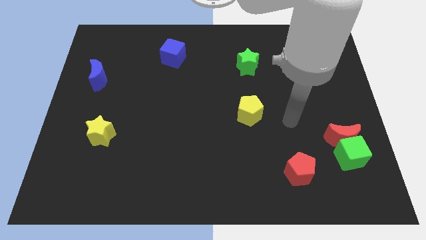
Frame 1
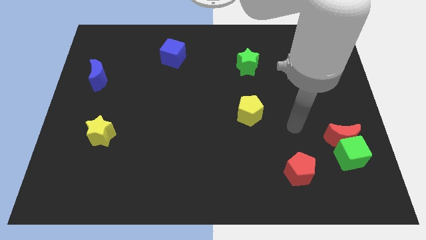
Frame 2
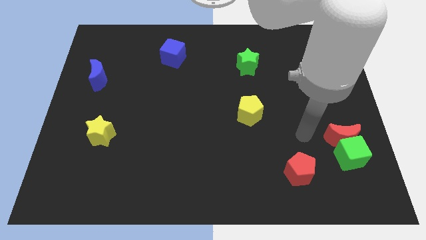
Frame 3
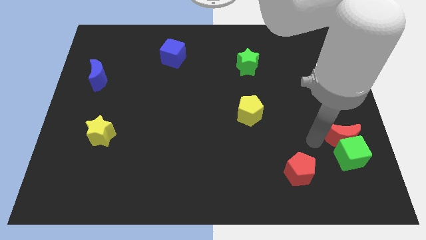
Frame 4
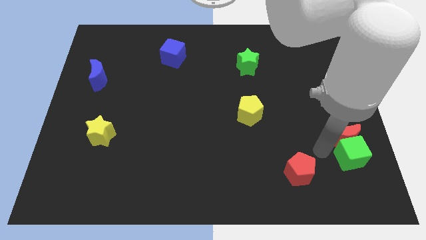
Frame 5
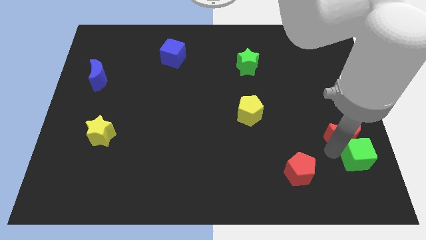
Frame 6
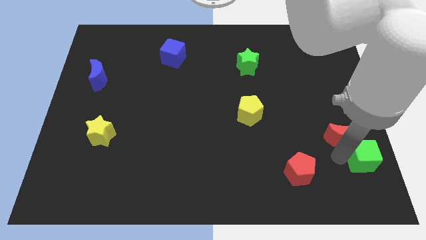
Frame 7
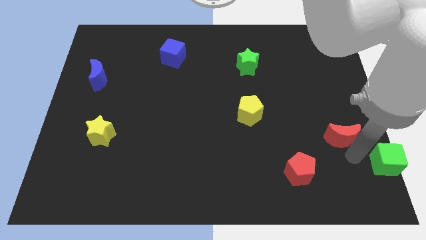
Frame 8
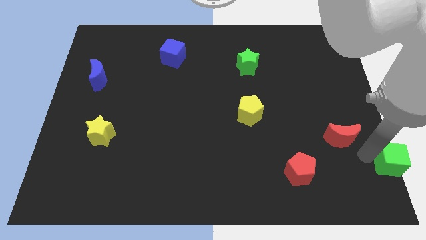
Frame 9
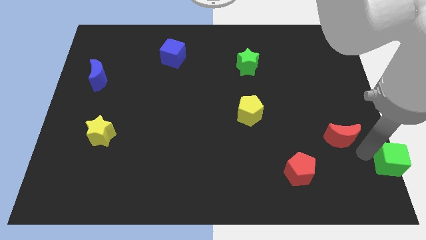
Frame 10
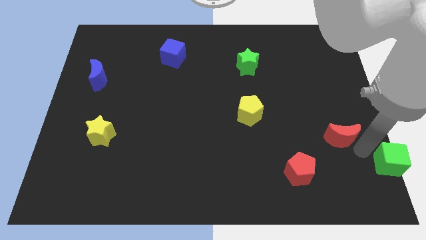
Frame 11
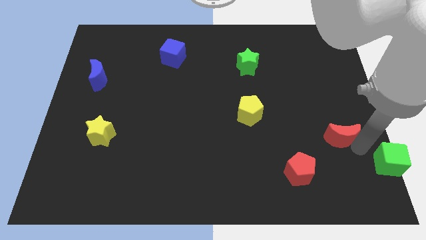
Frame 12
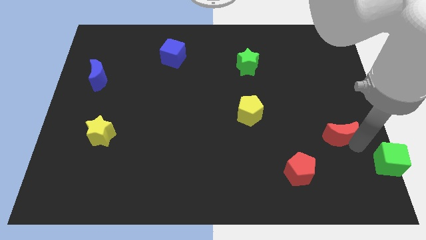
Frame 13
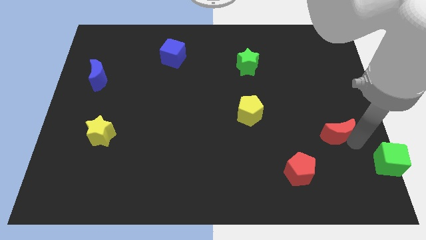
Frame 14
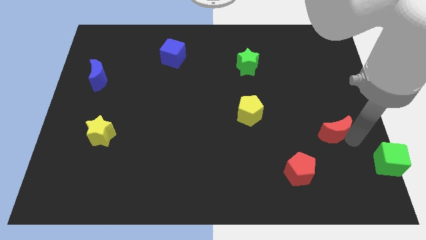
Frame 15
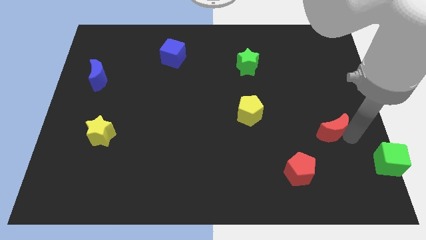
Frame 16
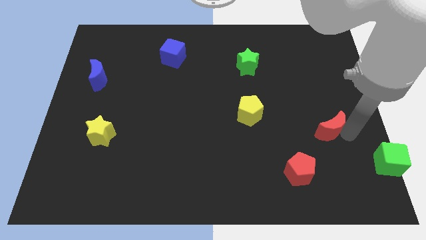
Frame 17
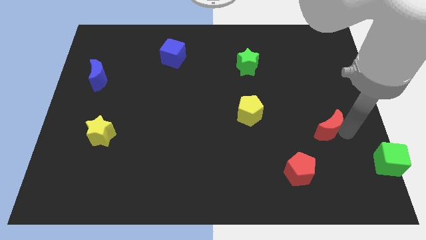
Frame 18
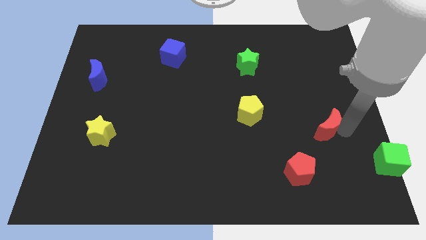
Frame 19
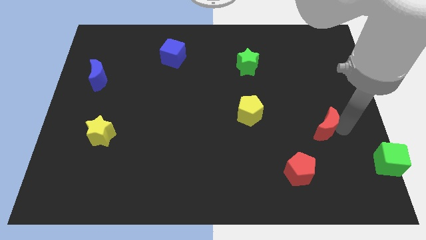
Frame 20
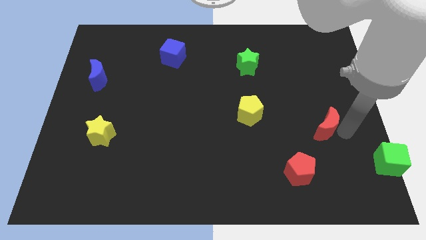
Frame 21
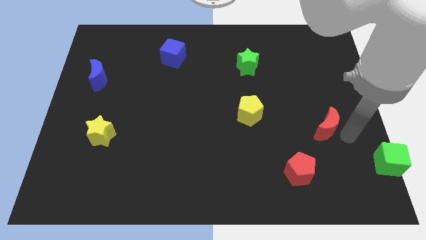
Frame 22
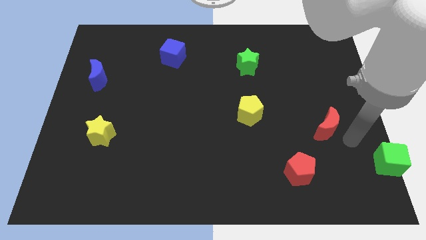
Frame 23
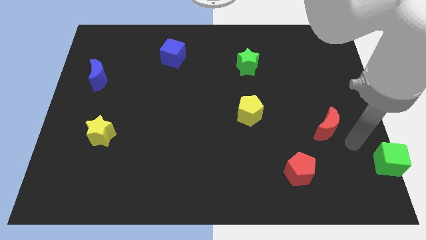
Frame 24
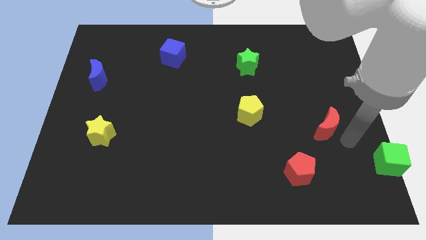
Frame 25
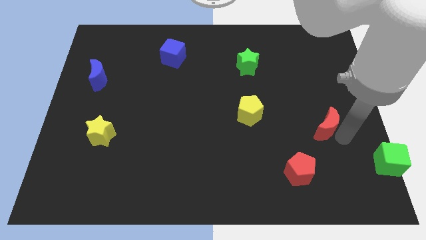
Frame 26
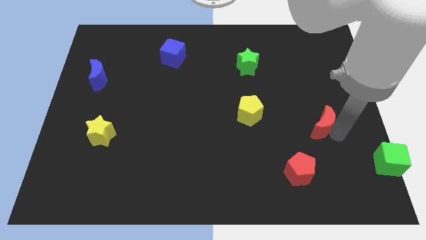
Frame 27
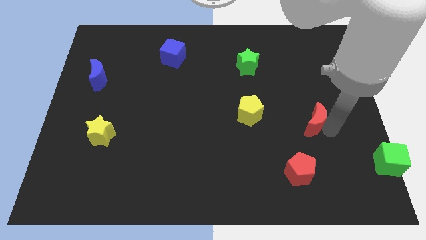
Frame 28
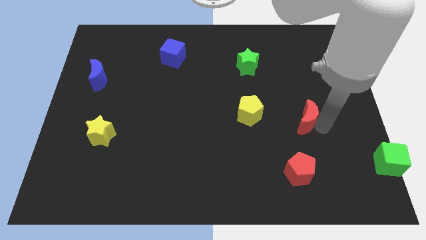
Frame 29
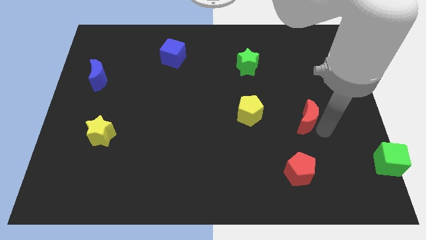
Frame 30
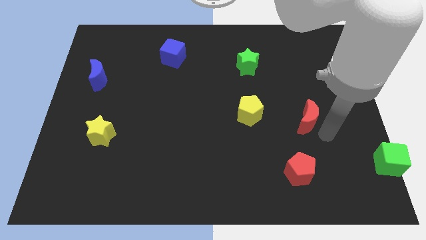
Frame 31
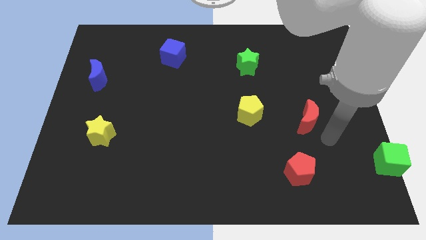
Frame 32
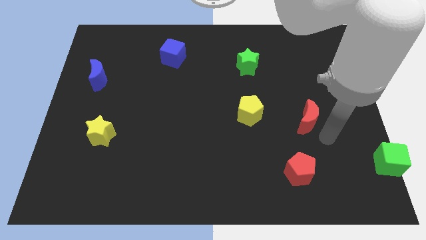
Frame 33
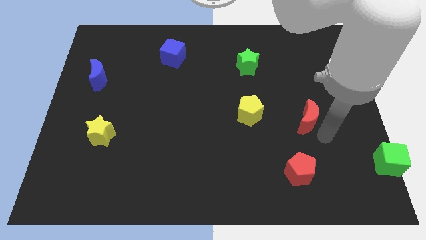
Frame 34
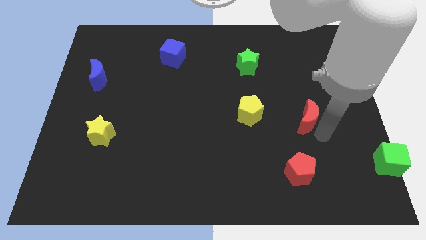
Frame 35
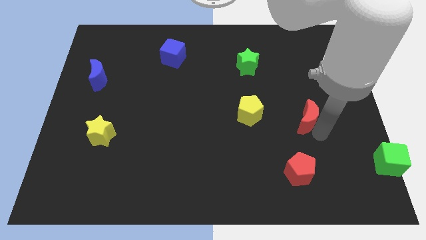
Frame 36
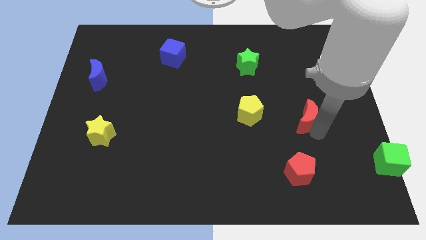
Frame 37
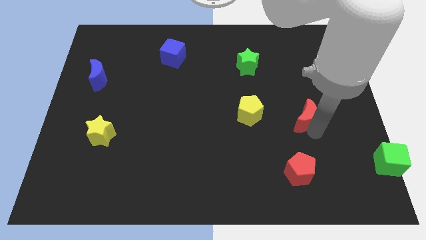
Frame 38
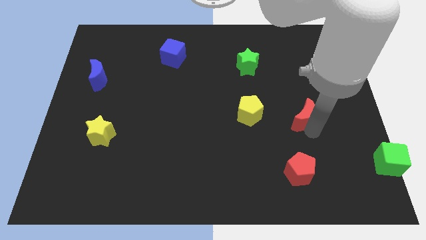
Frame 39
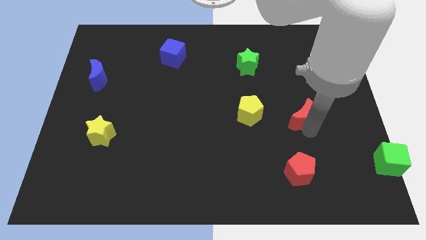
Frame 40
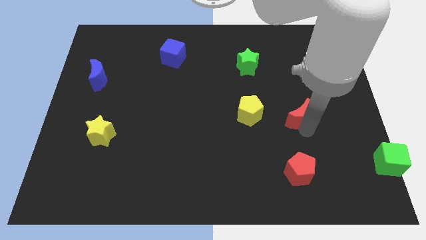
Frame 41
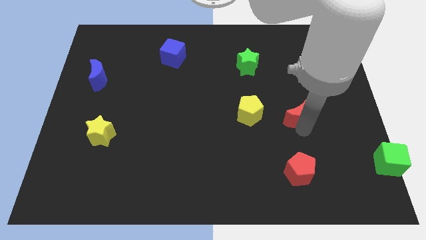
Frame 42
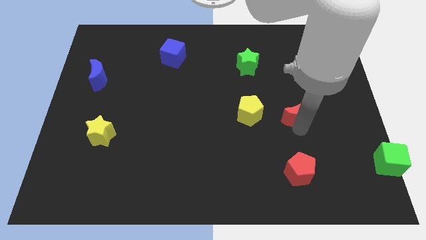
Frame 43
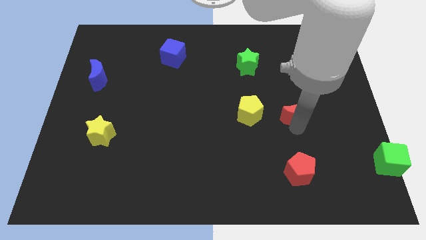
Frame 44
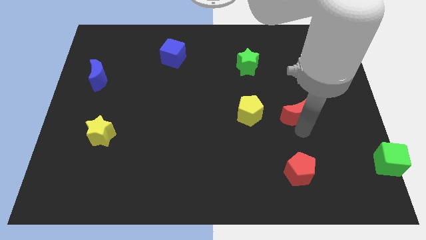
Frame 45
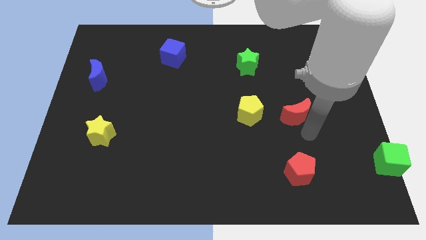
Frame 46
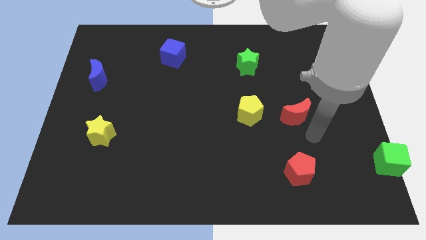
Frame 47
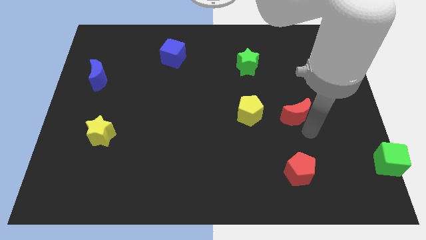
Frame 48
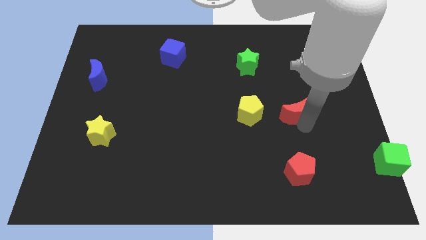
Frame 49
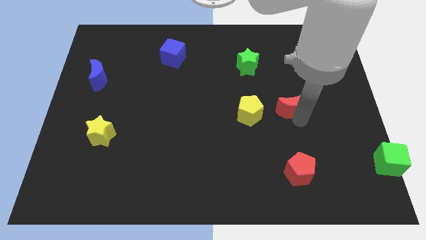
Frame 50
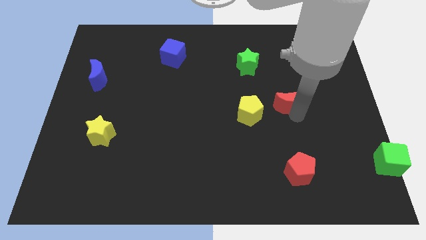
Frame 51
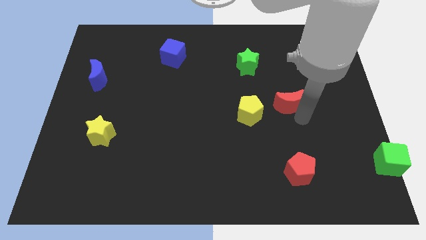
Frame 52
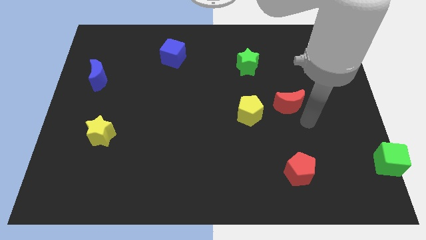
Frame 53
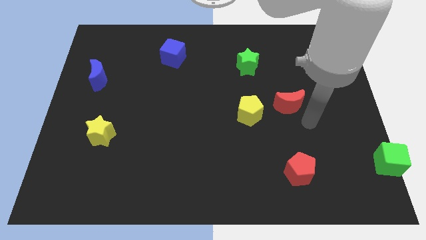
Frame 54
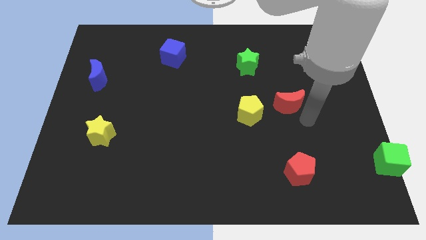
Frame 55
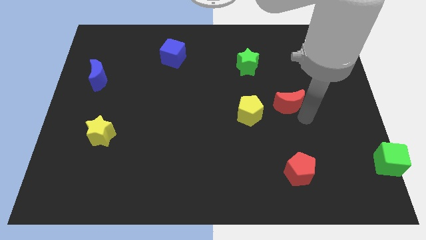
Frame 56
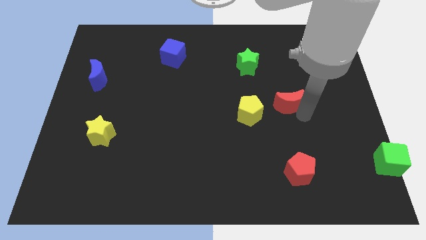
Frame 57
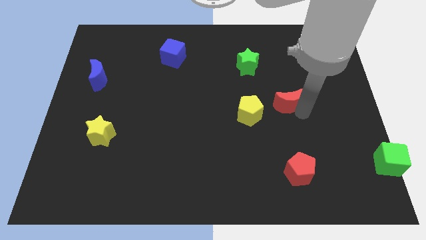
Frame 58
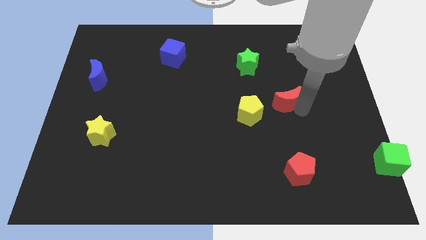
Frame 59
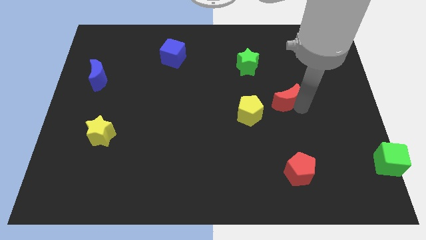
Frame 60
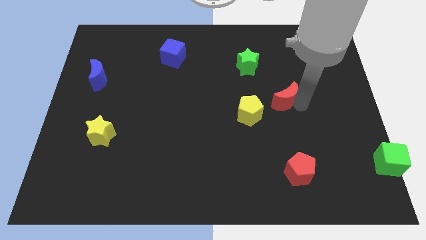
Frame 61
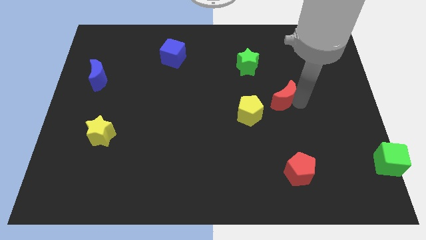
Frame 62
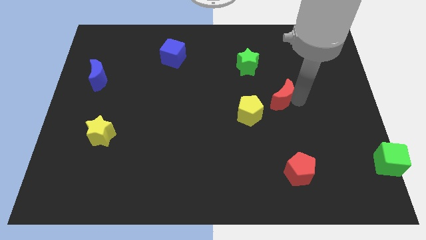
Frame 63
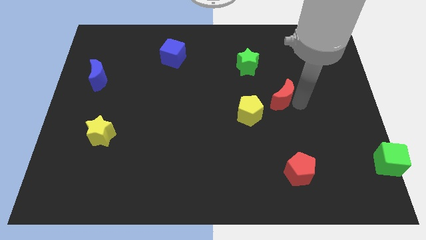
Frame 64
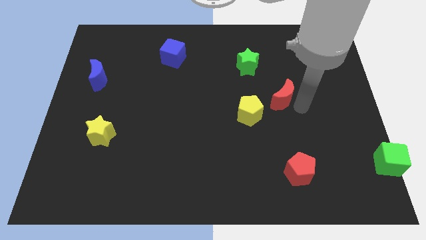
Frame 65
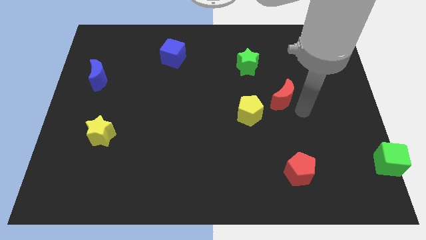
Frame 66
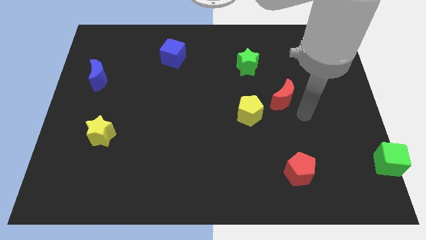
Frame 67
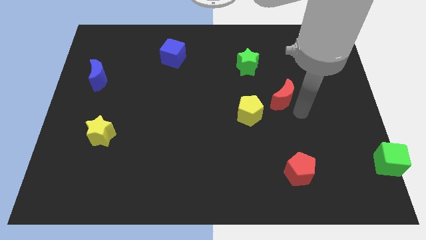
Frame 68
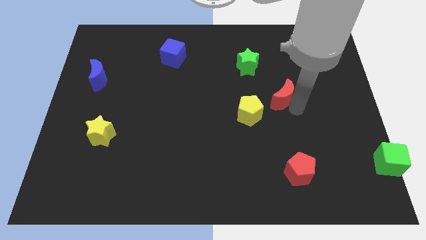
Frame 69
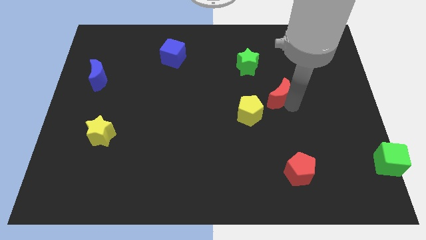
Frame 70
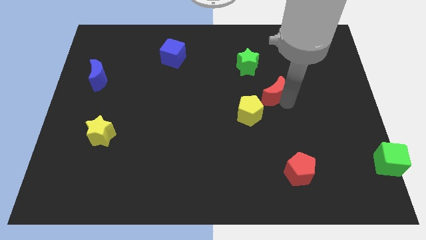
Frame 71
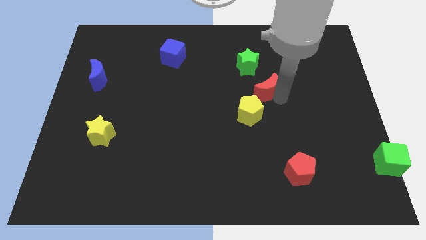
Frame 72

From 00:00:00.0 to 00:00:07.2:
slide the red moon to the top of the yellow pentagon

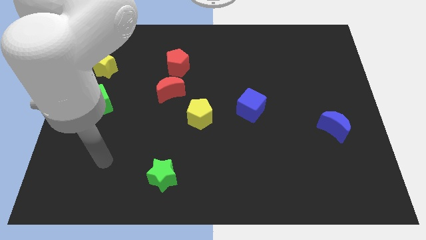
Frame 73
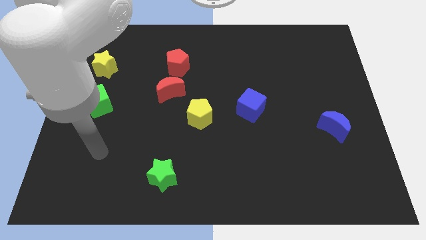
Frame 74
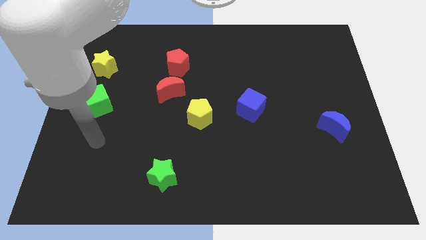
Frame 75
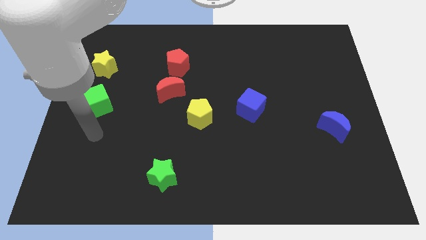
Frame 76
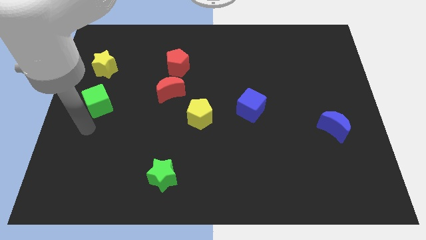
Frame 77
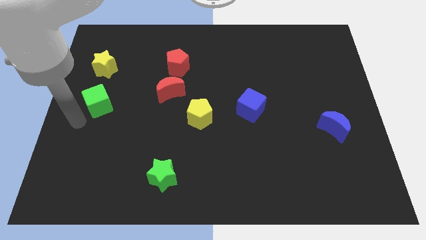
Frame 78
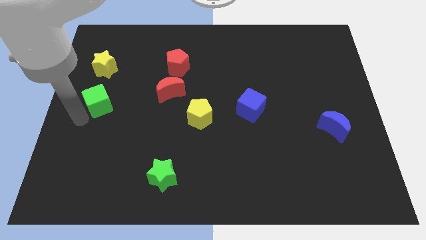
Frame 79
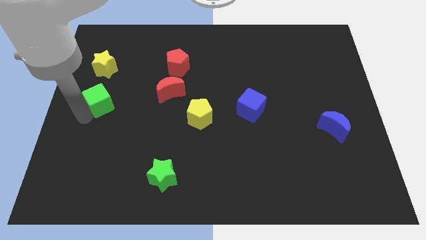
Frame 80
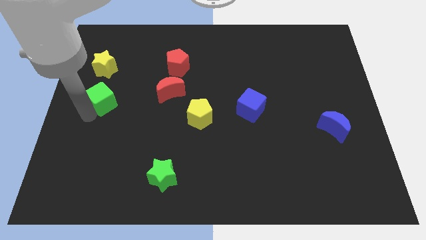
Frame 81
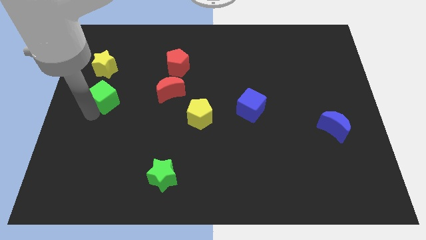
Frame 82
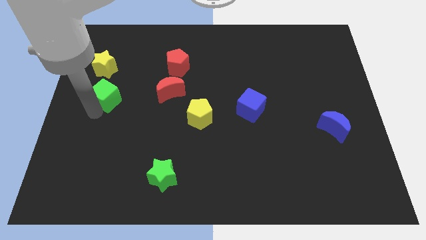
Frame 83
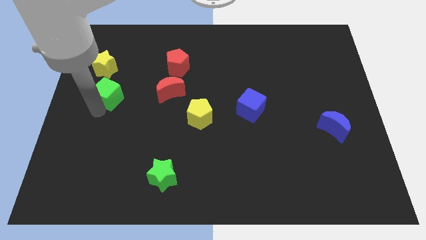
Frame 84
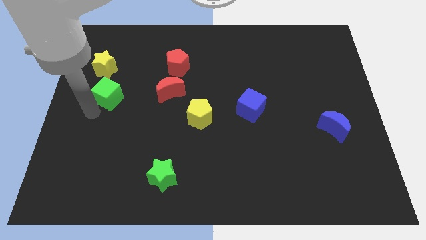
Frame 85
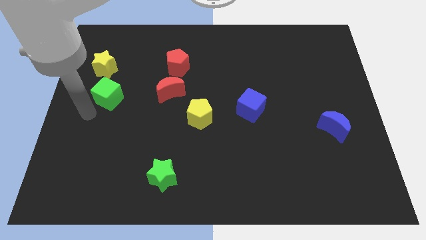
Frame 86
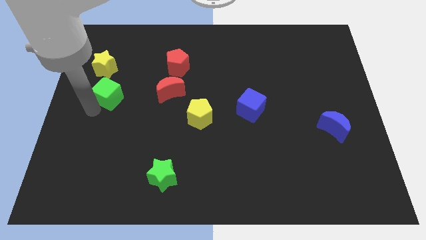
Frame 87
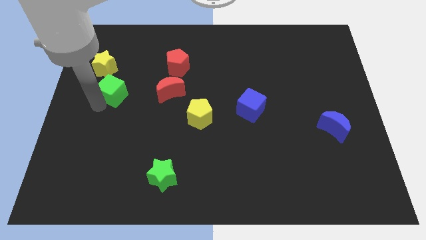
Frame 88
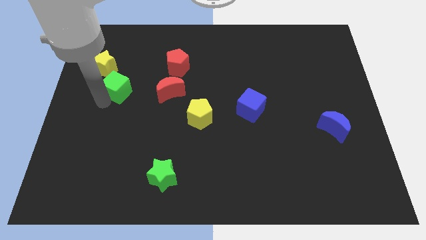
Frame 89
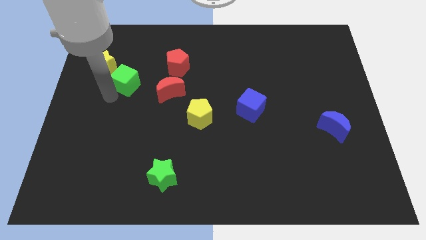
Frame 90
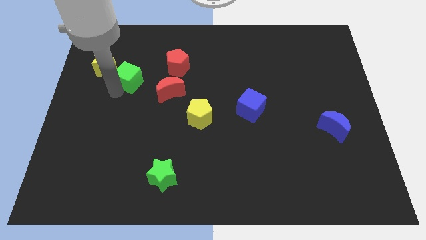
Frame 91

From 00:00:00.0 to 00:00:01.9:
move the green cube to the right side of the yellow star
